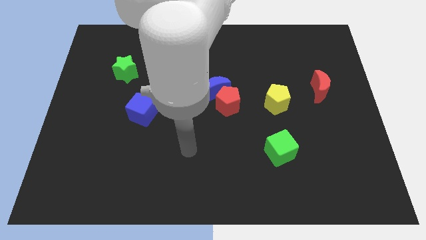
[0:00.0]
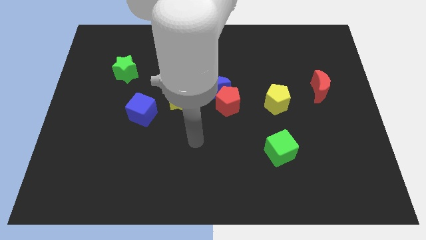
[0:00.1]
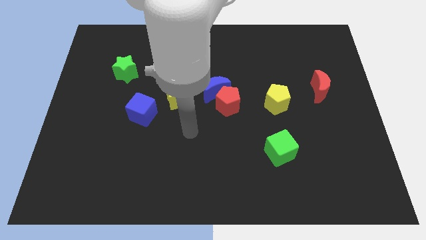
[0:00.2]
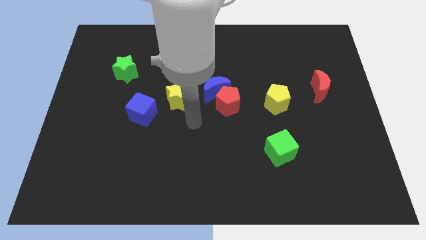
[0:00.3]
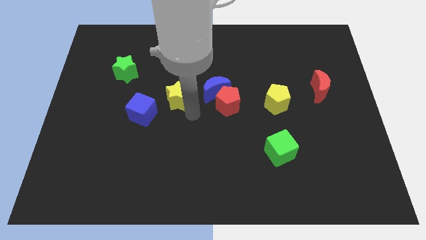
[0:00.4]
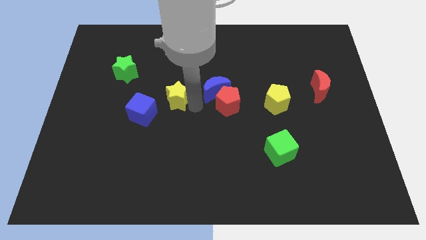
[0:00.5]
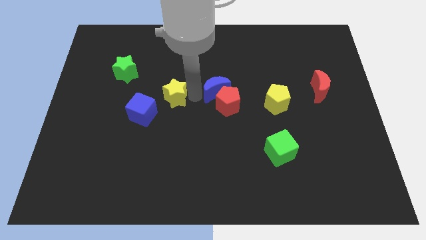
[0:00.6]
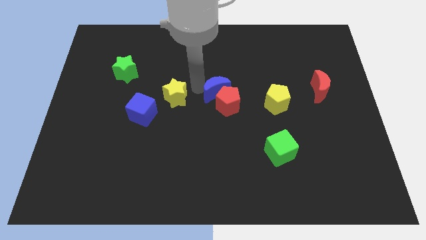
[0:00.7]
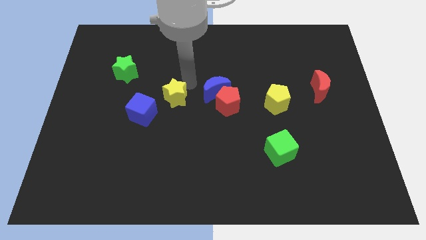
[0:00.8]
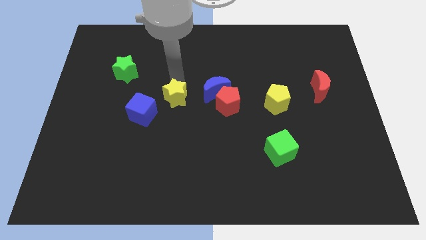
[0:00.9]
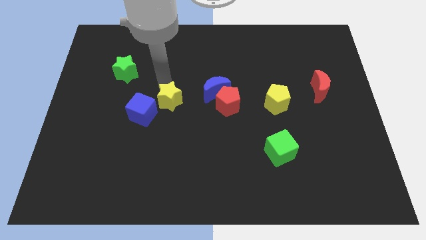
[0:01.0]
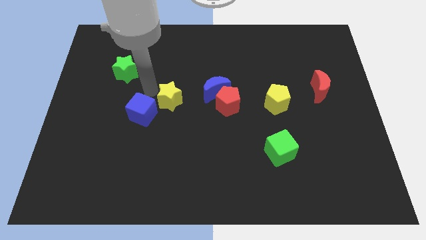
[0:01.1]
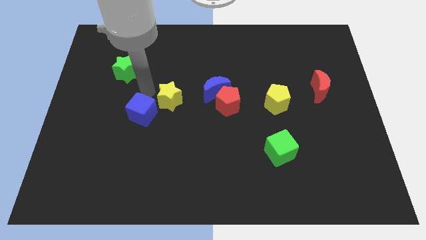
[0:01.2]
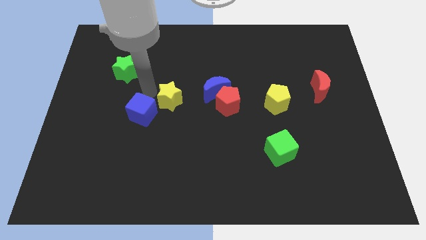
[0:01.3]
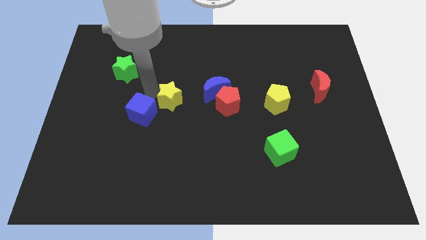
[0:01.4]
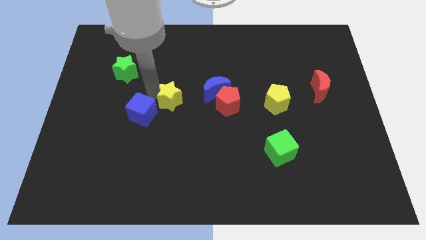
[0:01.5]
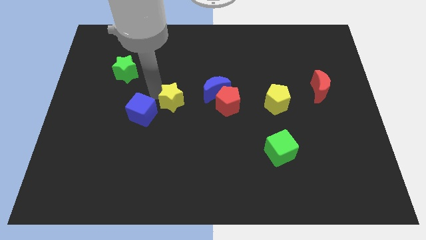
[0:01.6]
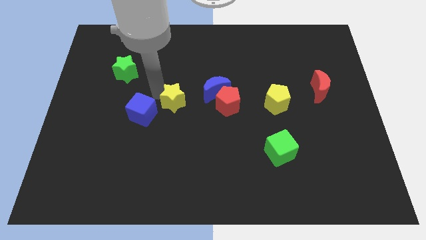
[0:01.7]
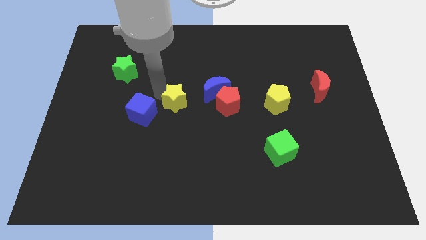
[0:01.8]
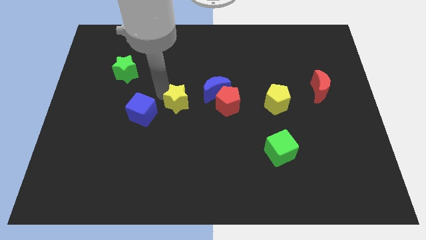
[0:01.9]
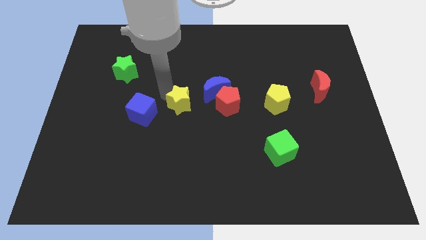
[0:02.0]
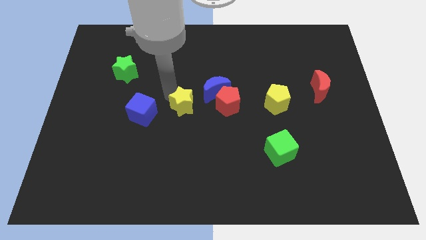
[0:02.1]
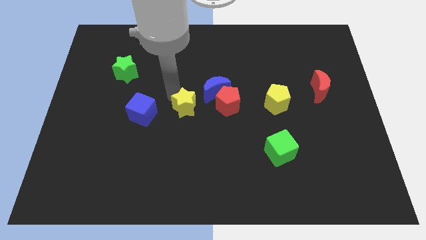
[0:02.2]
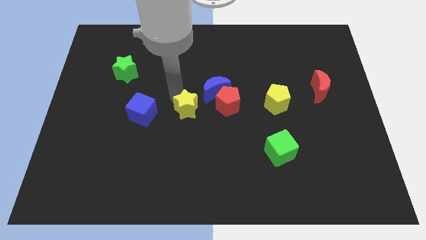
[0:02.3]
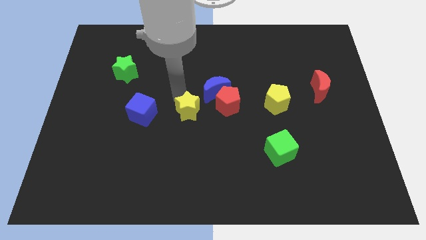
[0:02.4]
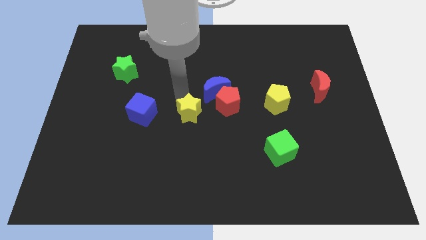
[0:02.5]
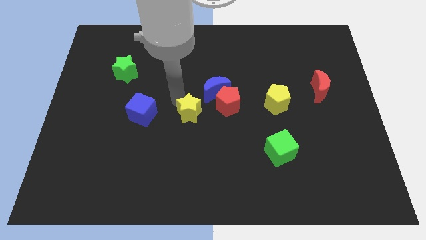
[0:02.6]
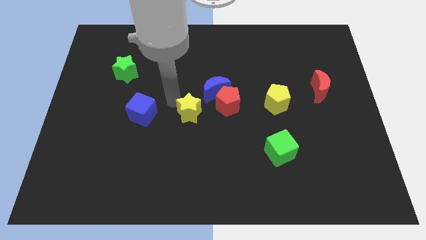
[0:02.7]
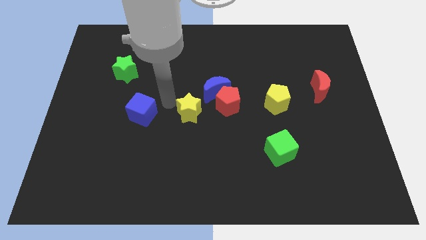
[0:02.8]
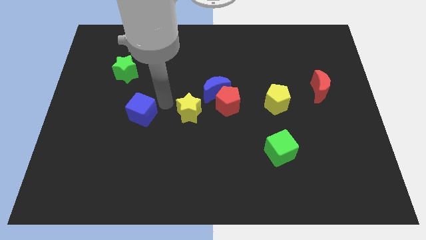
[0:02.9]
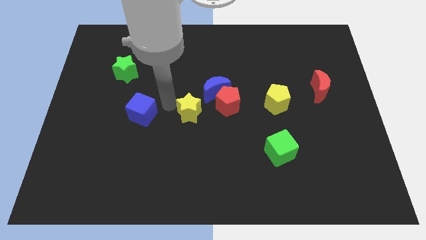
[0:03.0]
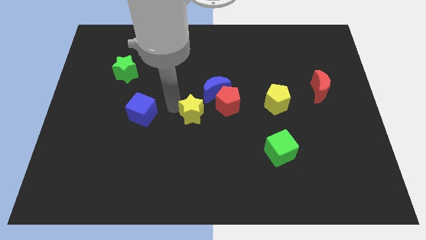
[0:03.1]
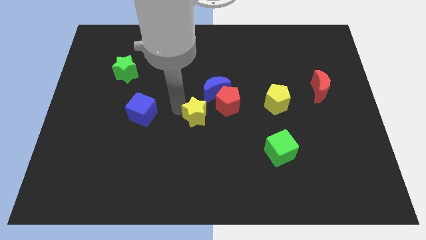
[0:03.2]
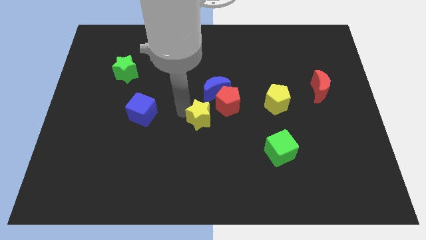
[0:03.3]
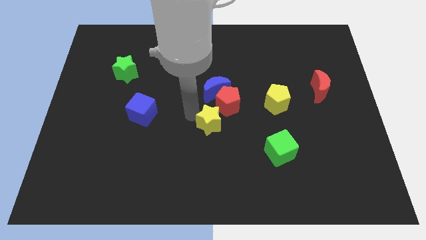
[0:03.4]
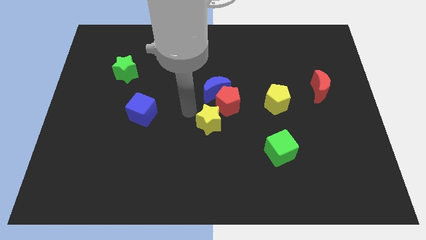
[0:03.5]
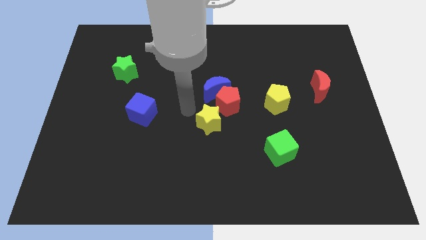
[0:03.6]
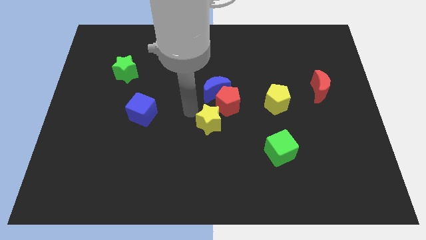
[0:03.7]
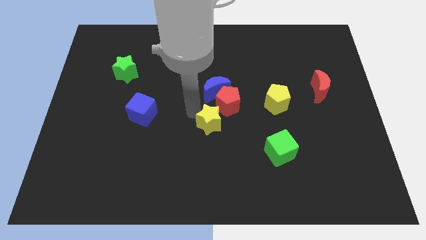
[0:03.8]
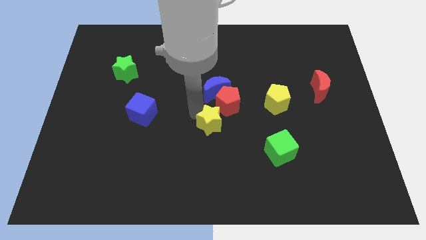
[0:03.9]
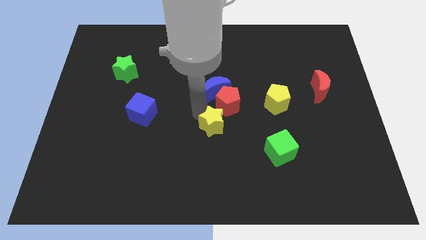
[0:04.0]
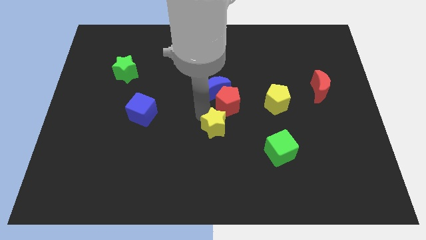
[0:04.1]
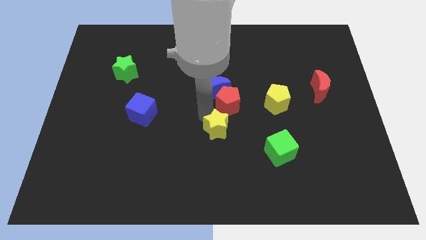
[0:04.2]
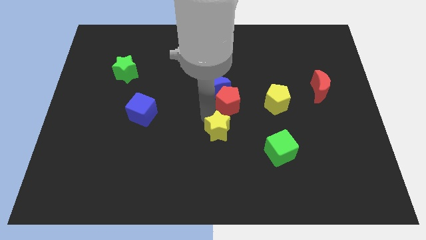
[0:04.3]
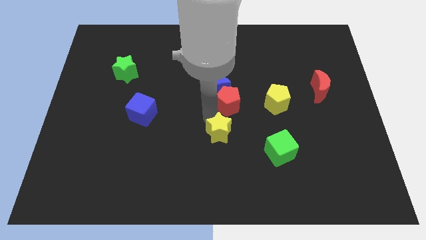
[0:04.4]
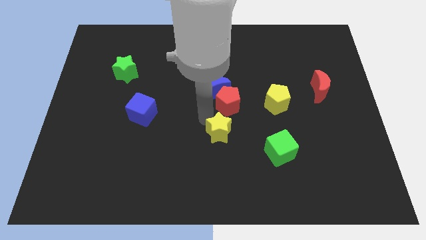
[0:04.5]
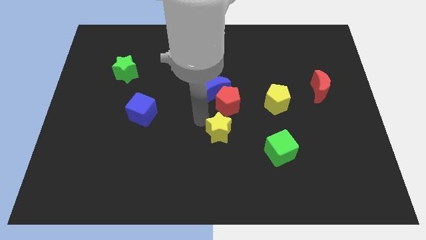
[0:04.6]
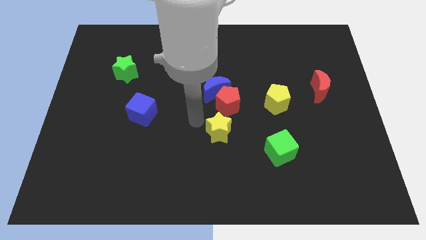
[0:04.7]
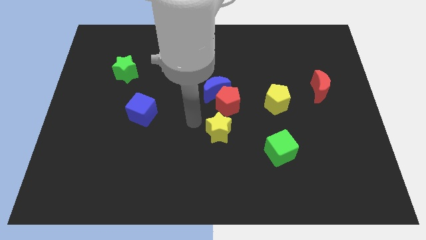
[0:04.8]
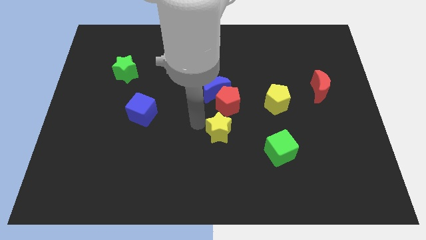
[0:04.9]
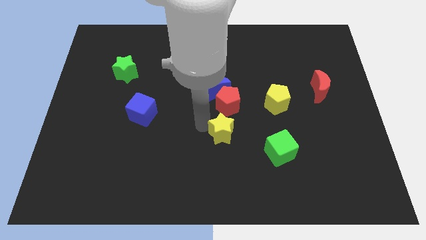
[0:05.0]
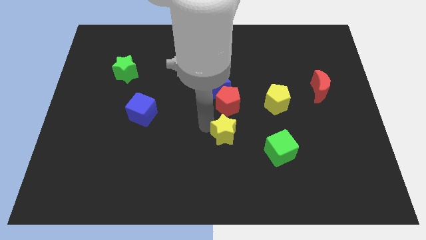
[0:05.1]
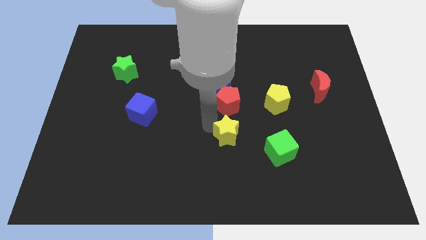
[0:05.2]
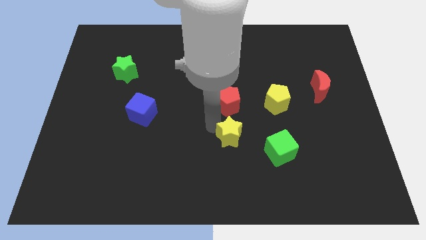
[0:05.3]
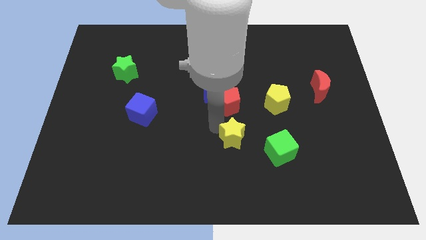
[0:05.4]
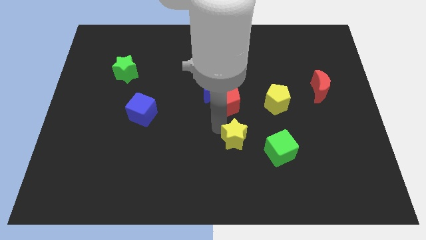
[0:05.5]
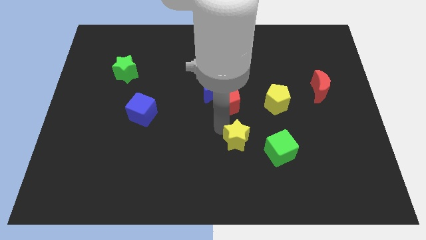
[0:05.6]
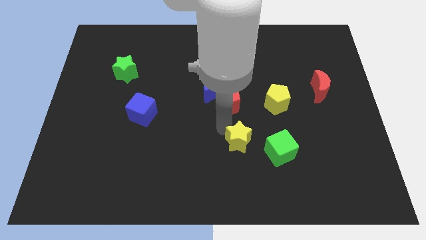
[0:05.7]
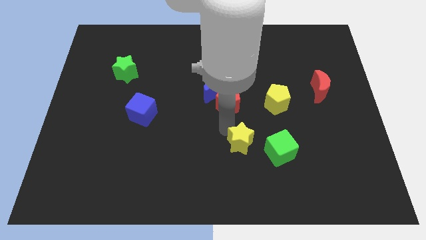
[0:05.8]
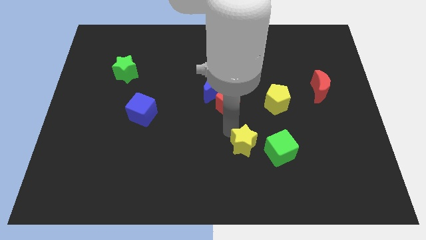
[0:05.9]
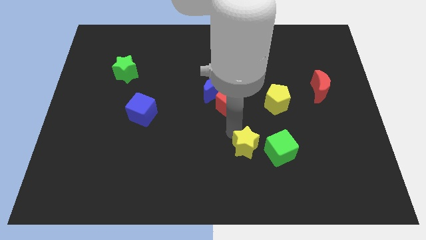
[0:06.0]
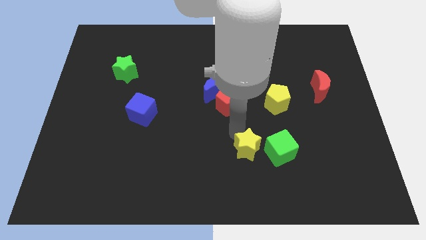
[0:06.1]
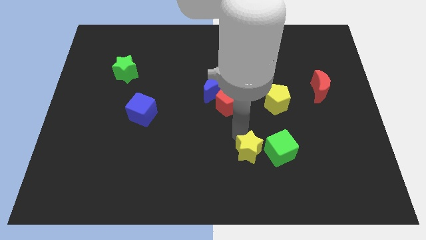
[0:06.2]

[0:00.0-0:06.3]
slide the yellow star to the bottom left of the green cube

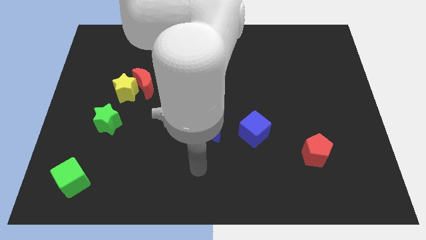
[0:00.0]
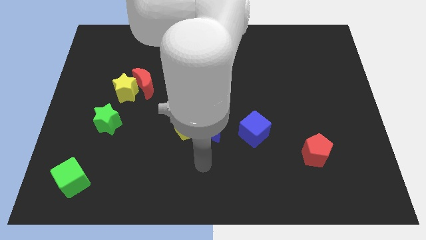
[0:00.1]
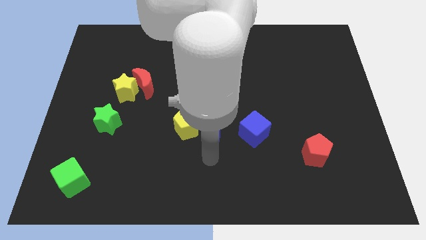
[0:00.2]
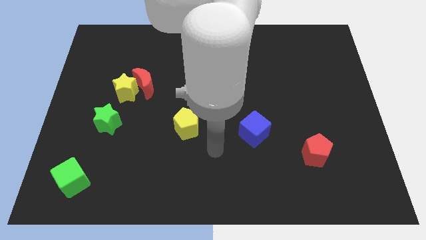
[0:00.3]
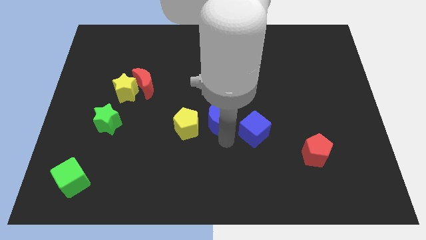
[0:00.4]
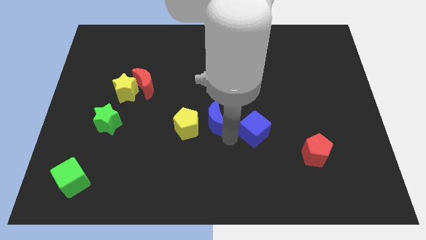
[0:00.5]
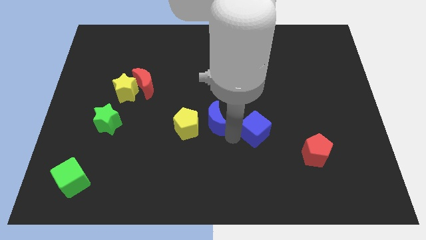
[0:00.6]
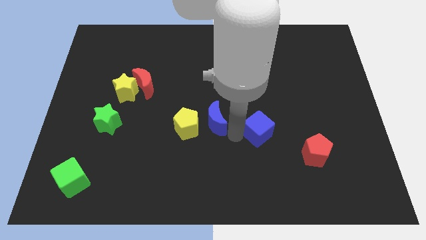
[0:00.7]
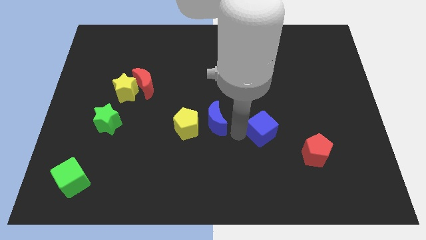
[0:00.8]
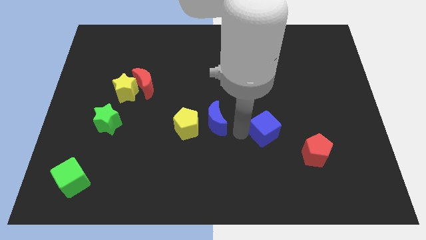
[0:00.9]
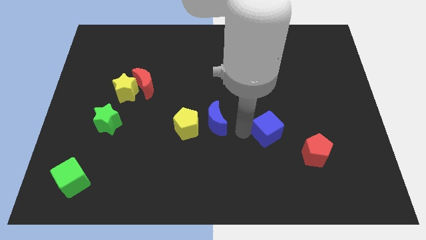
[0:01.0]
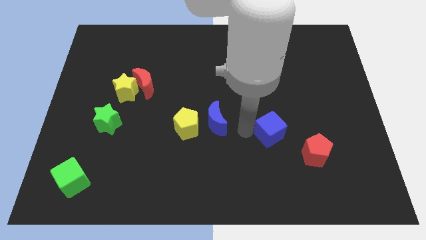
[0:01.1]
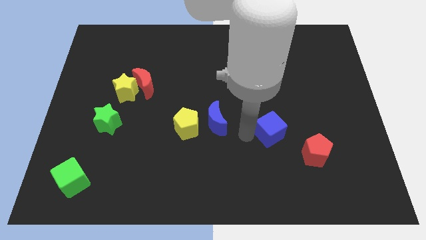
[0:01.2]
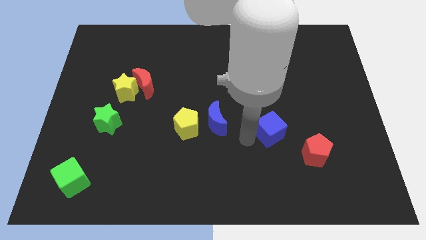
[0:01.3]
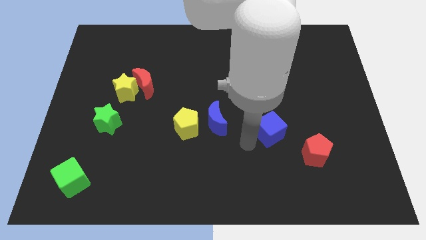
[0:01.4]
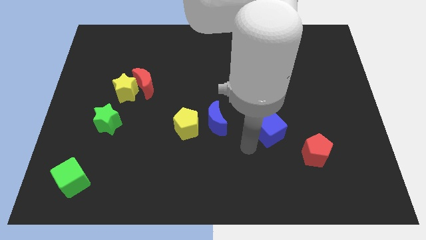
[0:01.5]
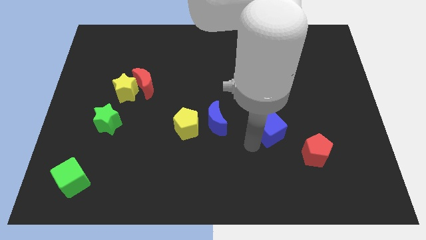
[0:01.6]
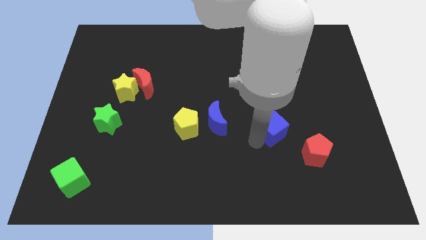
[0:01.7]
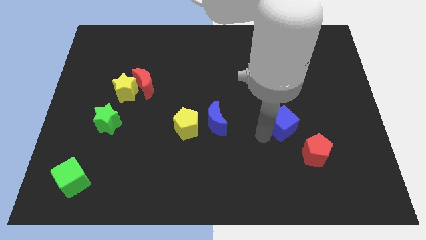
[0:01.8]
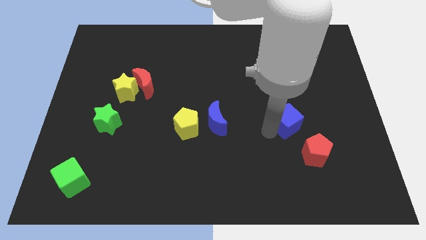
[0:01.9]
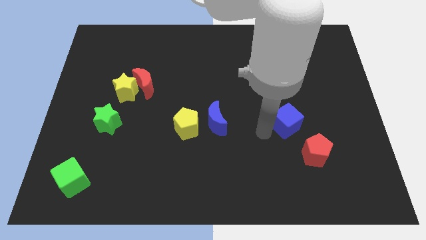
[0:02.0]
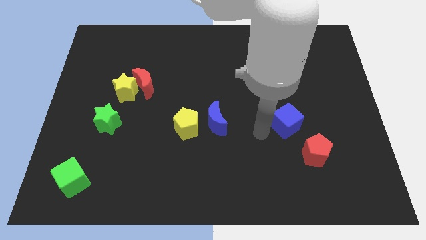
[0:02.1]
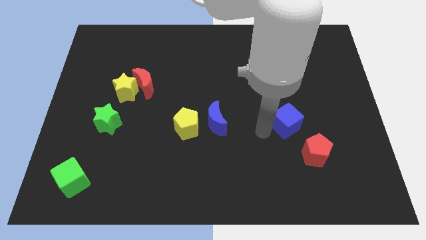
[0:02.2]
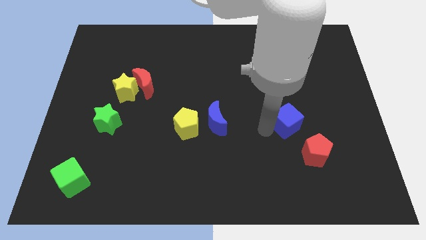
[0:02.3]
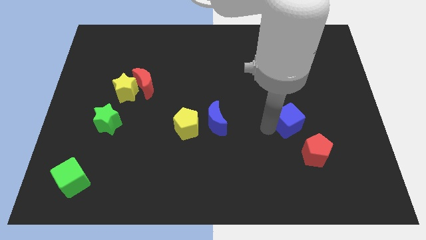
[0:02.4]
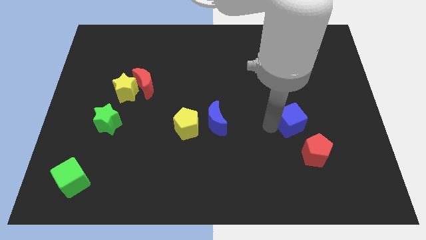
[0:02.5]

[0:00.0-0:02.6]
put the blue cube above the red pentagon
